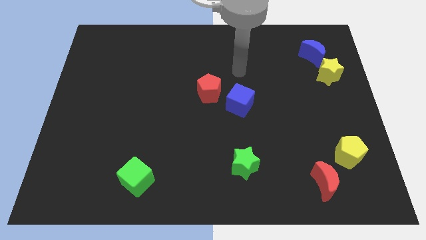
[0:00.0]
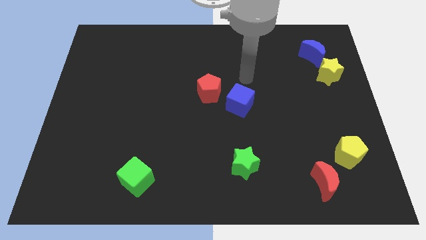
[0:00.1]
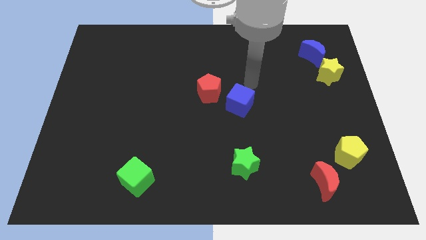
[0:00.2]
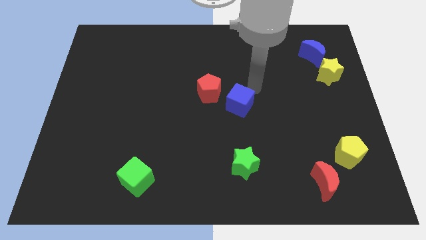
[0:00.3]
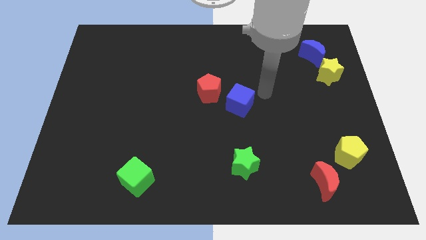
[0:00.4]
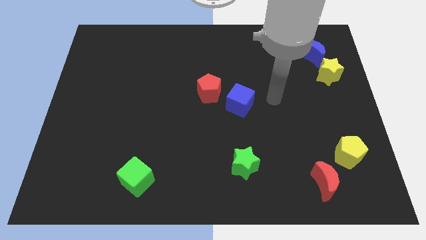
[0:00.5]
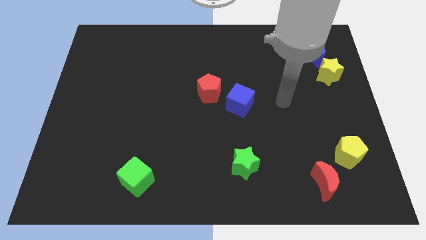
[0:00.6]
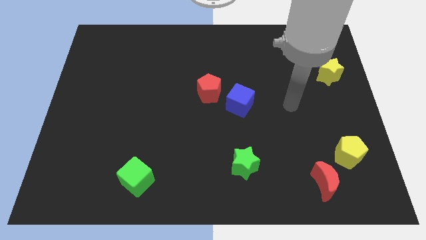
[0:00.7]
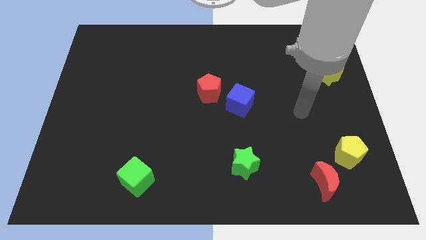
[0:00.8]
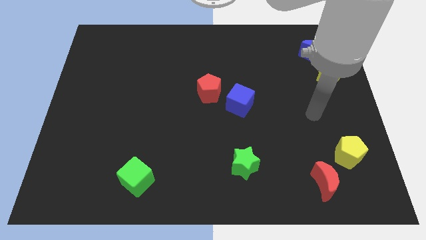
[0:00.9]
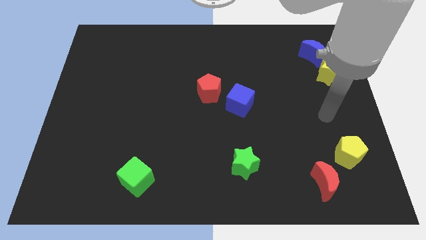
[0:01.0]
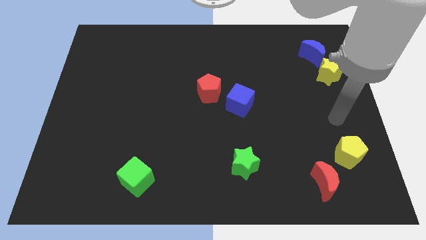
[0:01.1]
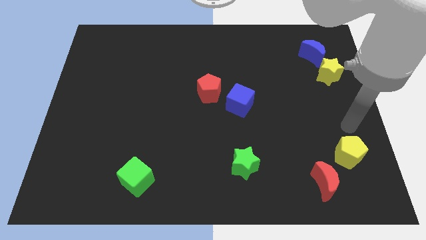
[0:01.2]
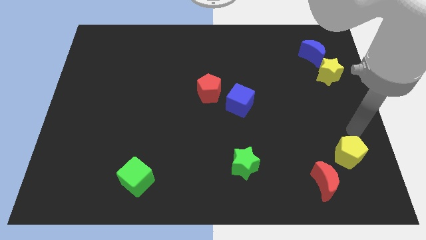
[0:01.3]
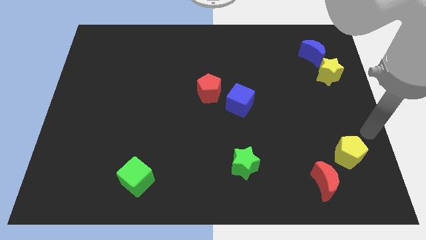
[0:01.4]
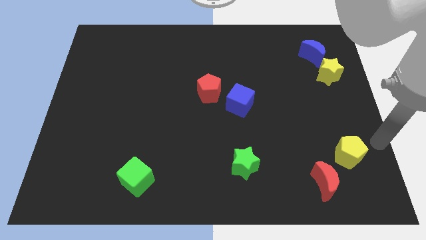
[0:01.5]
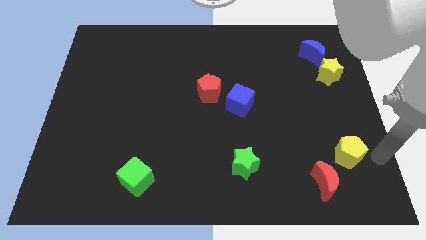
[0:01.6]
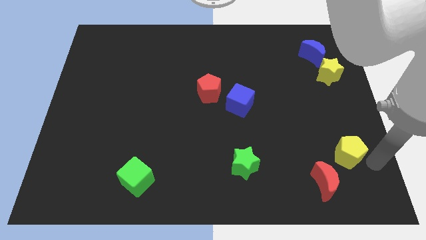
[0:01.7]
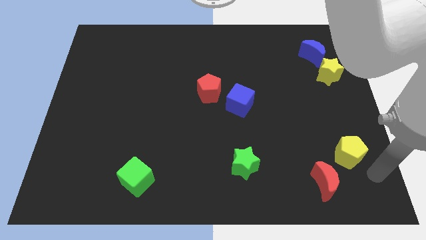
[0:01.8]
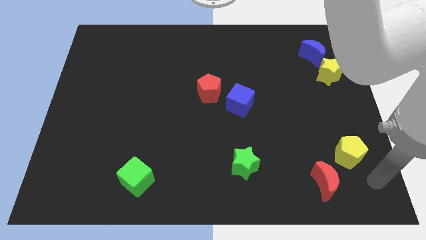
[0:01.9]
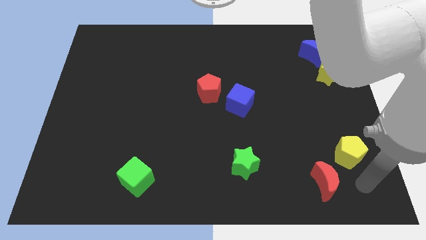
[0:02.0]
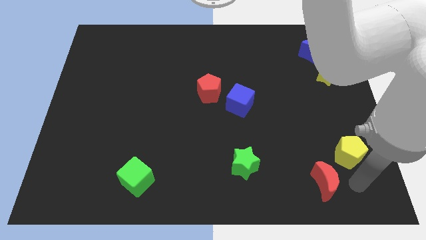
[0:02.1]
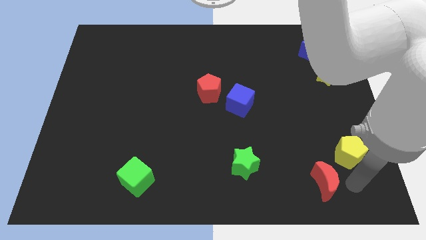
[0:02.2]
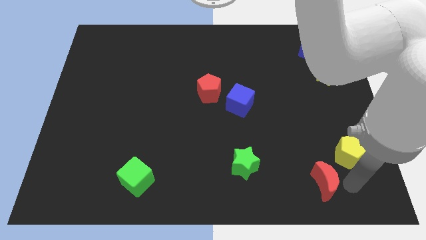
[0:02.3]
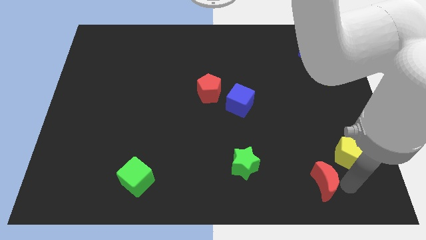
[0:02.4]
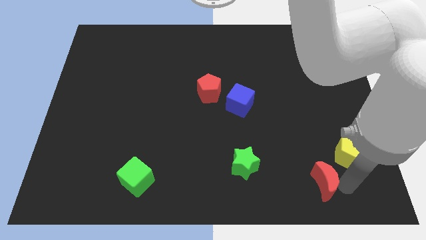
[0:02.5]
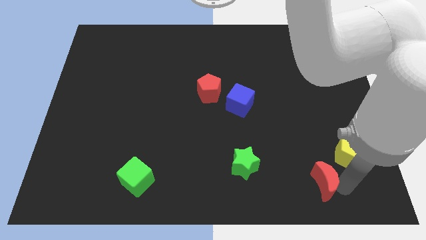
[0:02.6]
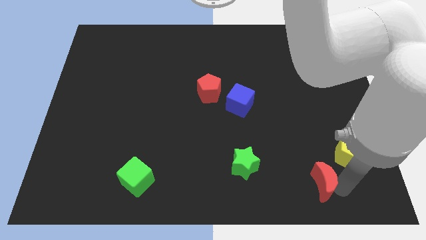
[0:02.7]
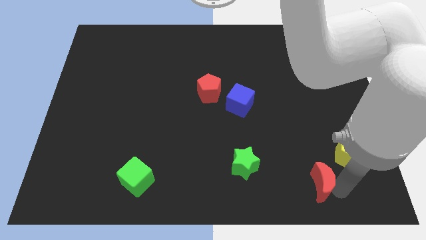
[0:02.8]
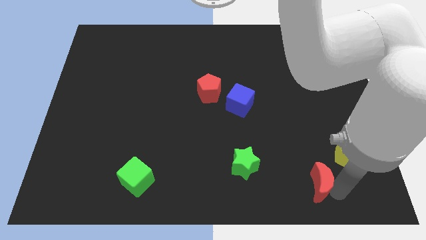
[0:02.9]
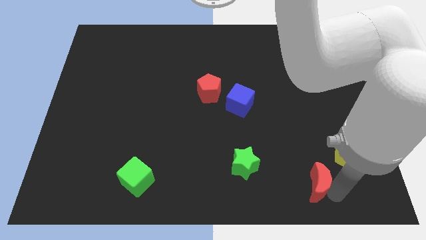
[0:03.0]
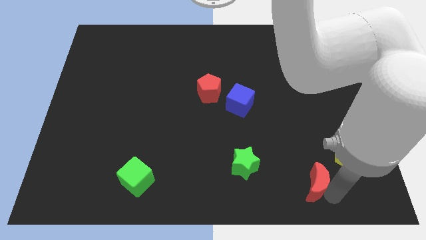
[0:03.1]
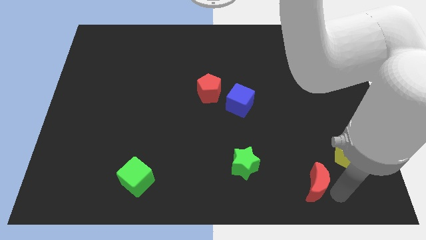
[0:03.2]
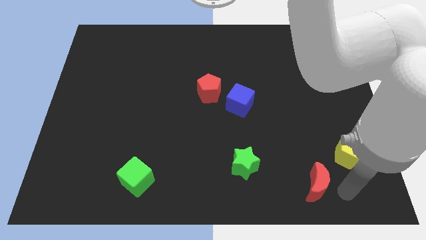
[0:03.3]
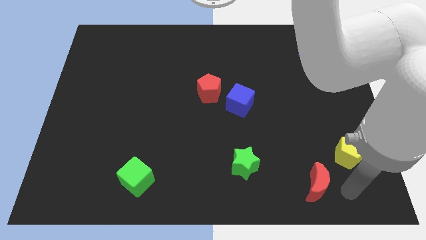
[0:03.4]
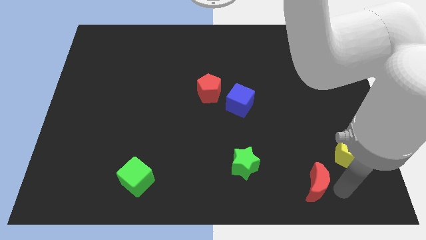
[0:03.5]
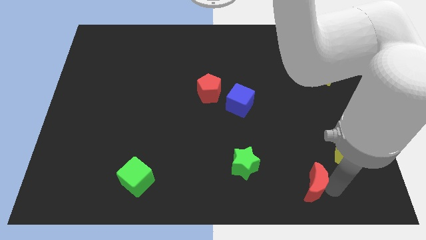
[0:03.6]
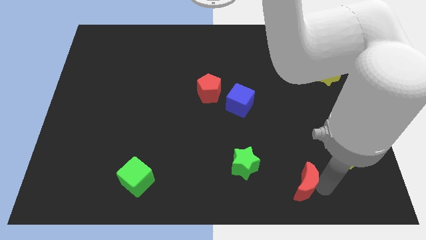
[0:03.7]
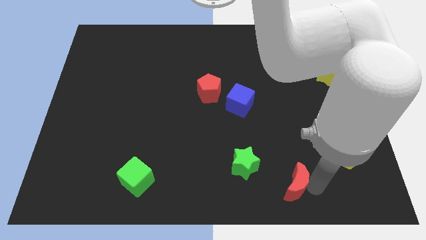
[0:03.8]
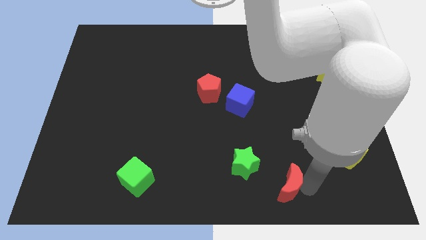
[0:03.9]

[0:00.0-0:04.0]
move the red moon to the left a bit

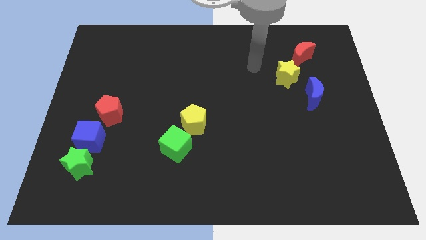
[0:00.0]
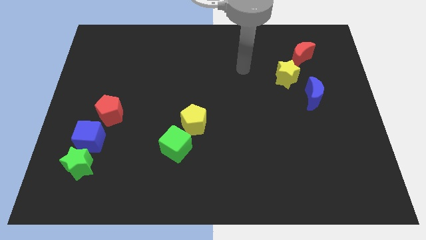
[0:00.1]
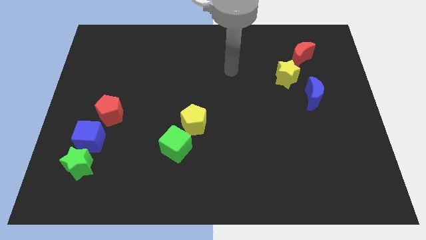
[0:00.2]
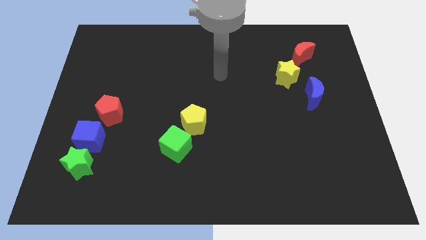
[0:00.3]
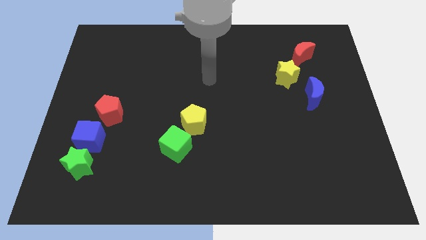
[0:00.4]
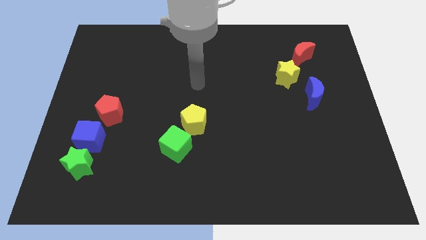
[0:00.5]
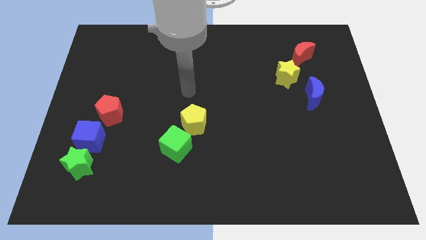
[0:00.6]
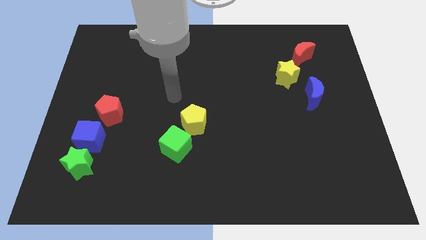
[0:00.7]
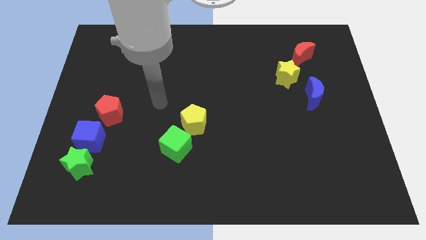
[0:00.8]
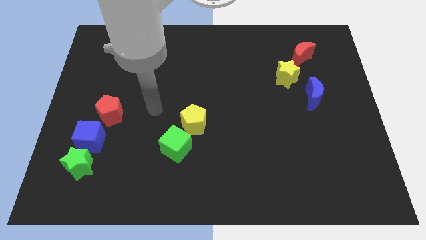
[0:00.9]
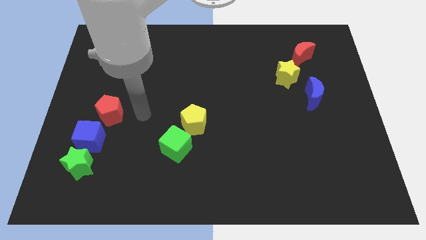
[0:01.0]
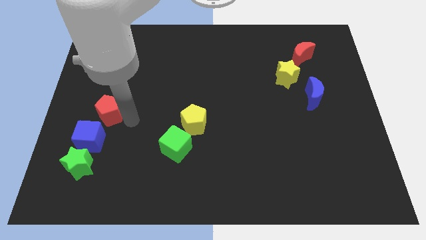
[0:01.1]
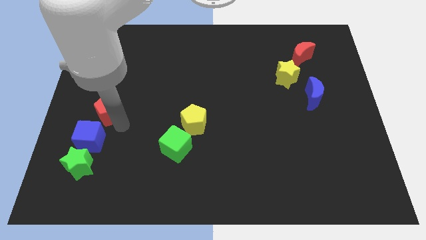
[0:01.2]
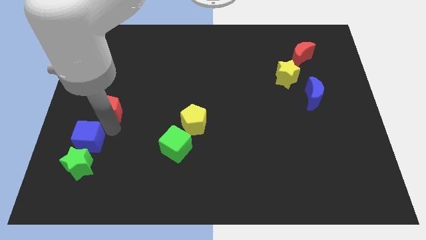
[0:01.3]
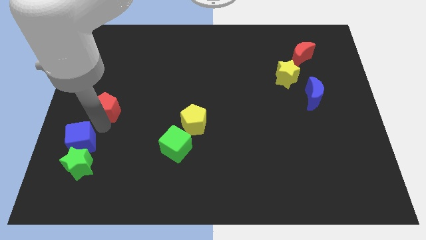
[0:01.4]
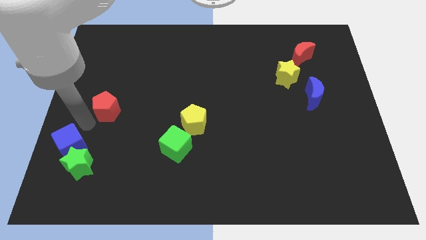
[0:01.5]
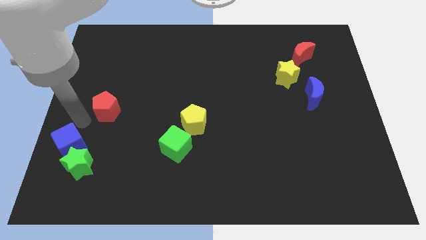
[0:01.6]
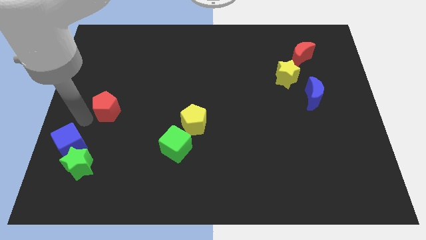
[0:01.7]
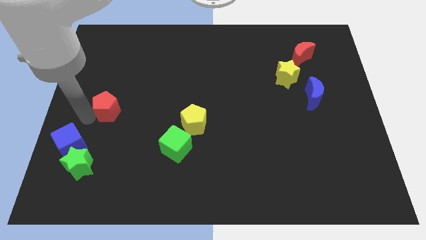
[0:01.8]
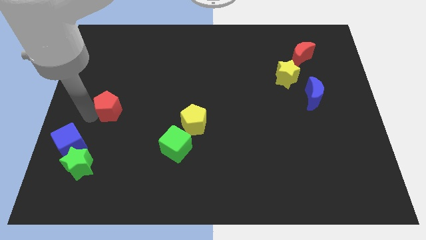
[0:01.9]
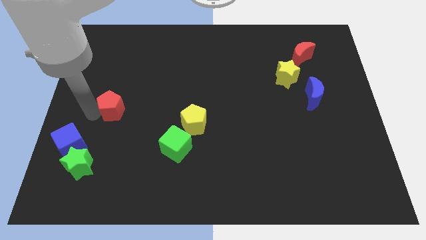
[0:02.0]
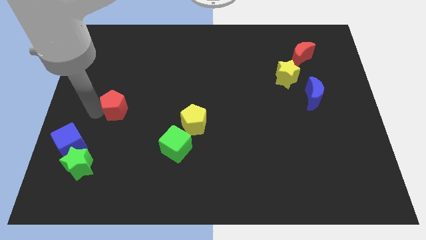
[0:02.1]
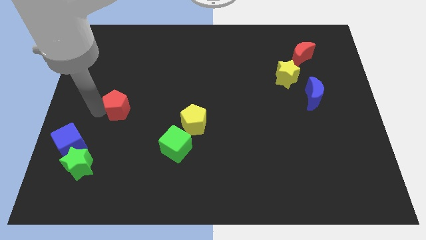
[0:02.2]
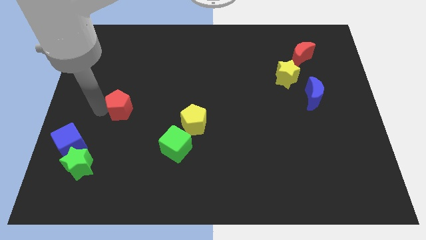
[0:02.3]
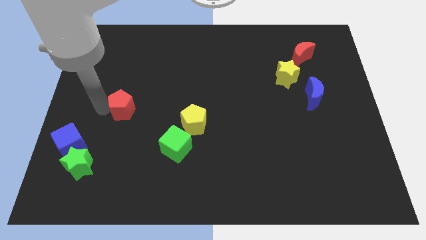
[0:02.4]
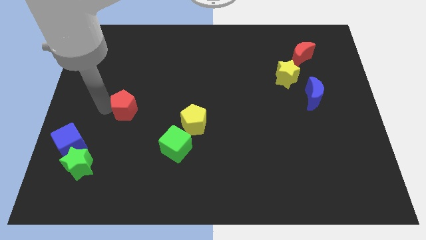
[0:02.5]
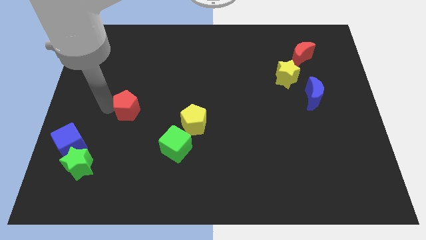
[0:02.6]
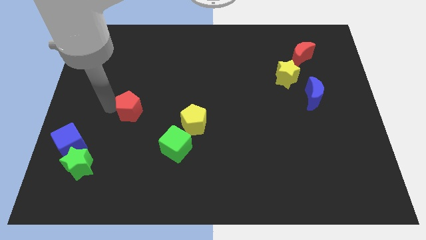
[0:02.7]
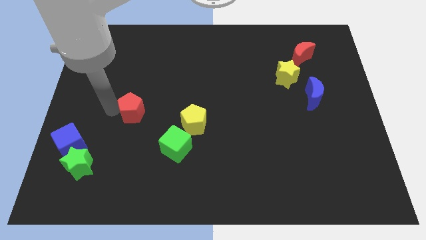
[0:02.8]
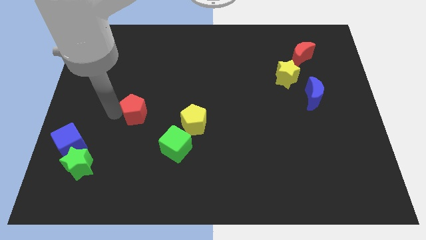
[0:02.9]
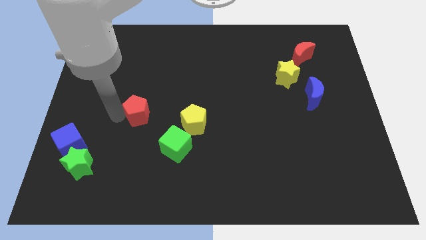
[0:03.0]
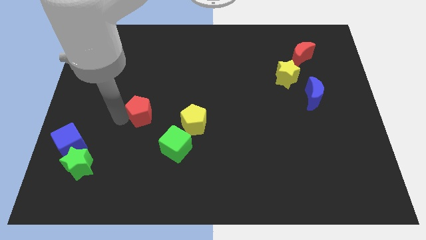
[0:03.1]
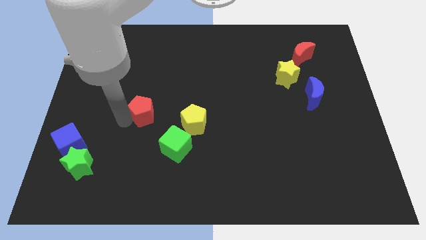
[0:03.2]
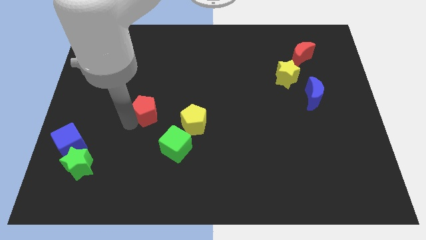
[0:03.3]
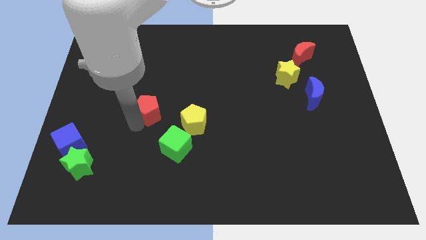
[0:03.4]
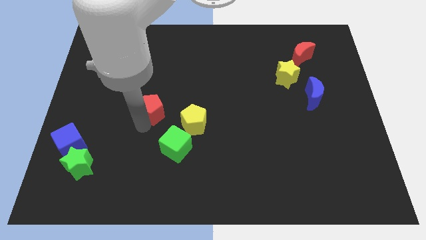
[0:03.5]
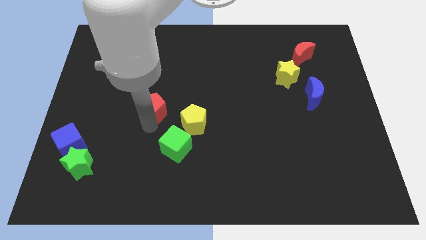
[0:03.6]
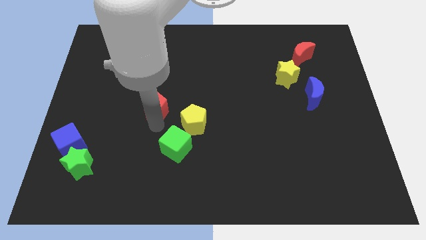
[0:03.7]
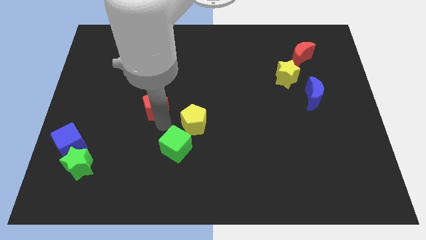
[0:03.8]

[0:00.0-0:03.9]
push the red pentagon a little up and to the right diagonally
